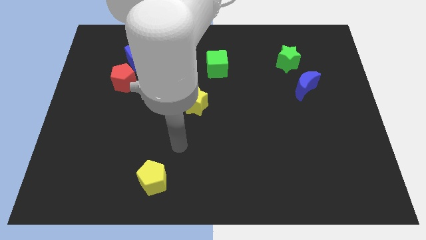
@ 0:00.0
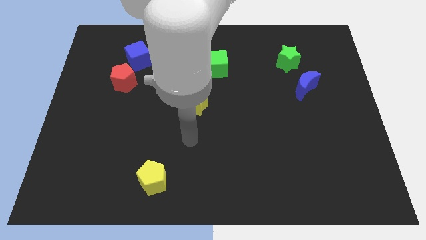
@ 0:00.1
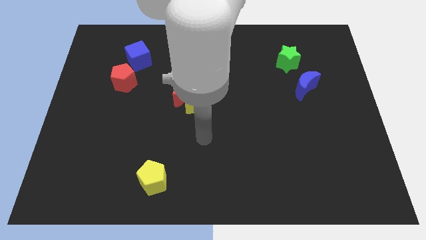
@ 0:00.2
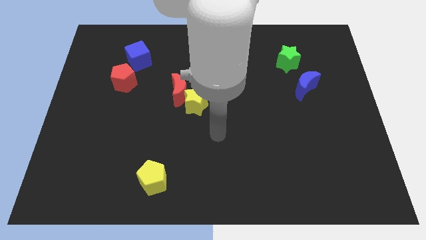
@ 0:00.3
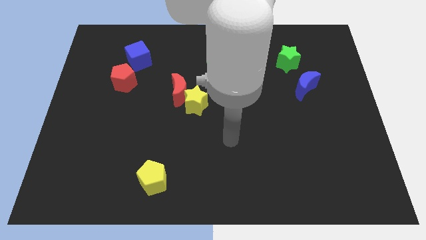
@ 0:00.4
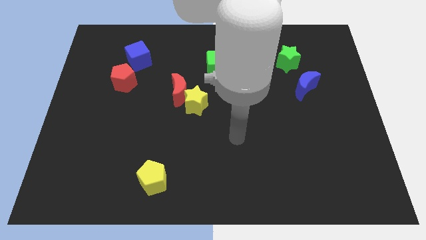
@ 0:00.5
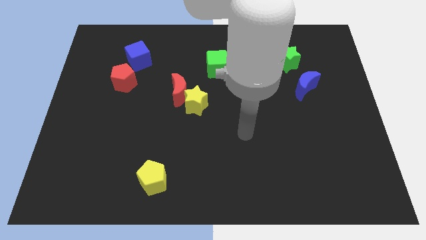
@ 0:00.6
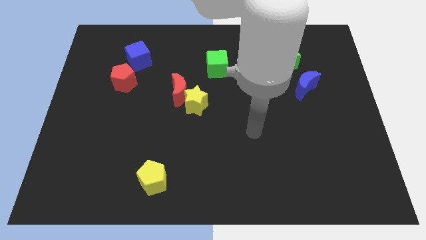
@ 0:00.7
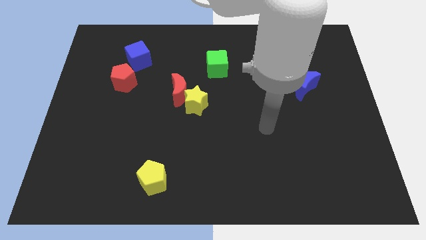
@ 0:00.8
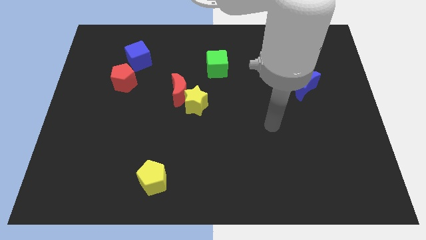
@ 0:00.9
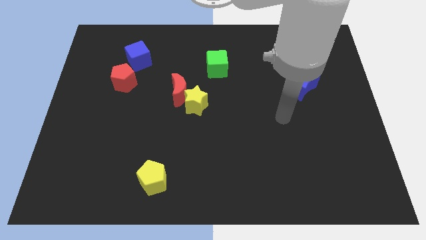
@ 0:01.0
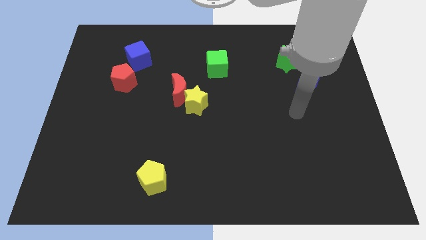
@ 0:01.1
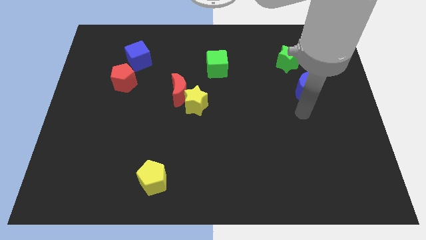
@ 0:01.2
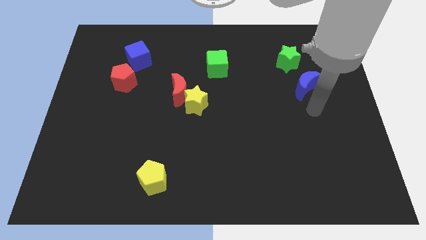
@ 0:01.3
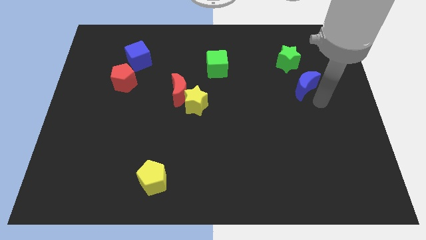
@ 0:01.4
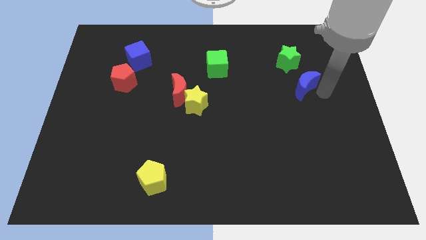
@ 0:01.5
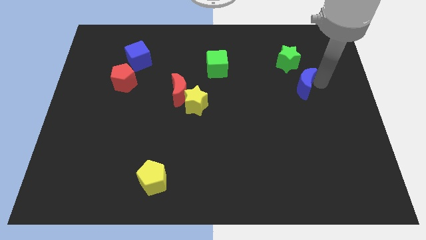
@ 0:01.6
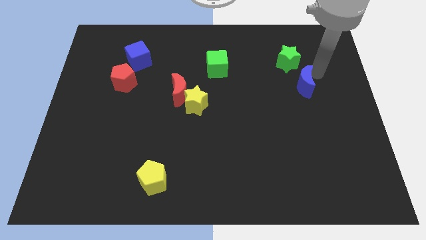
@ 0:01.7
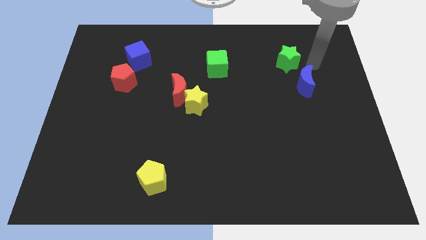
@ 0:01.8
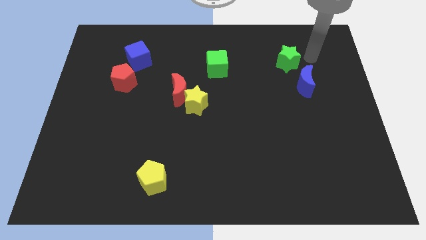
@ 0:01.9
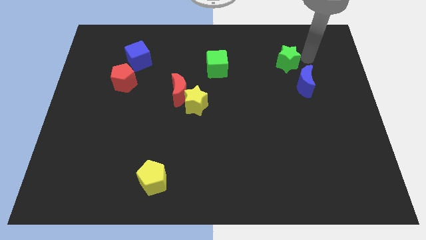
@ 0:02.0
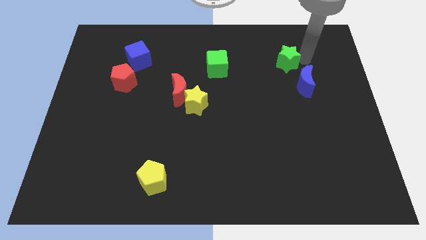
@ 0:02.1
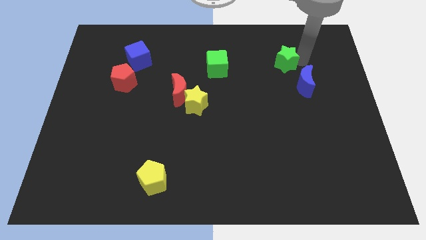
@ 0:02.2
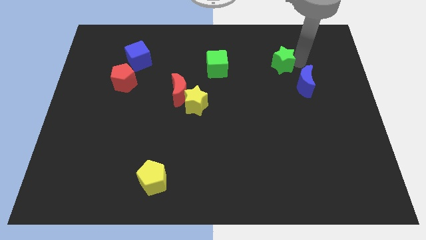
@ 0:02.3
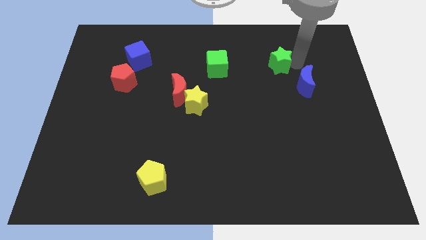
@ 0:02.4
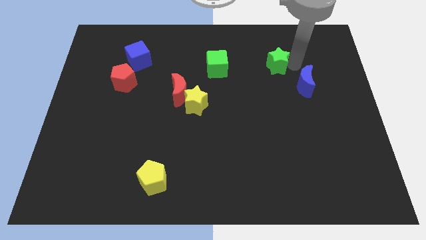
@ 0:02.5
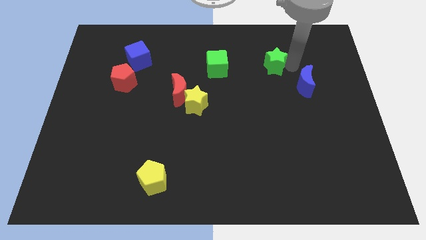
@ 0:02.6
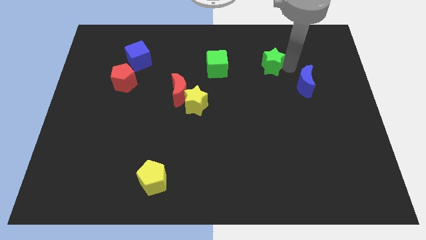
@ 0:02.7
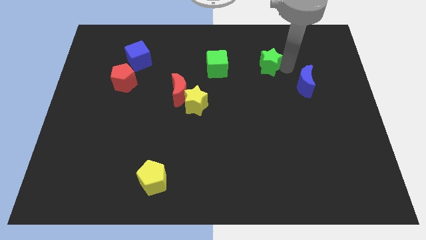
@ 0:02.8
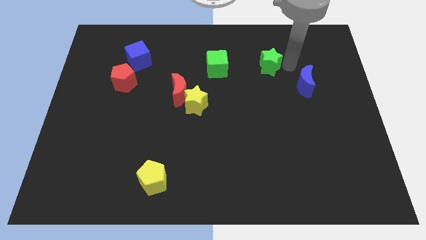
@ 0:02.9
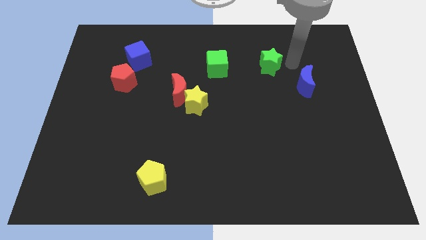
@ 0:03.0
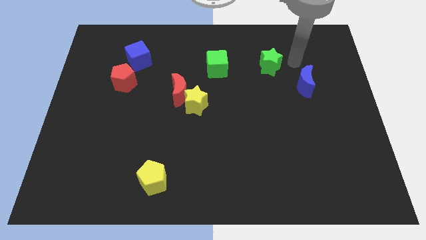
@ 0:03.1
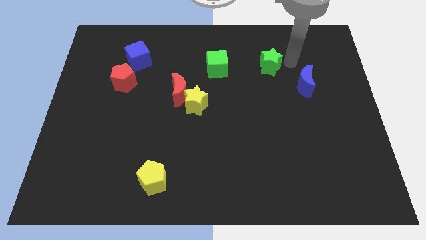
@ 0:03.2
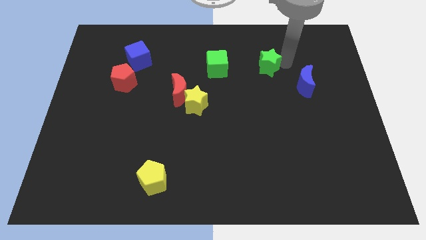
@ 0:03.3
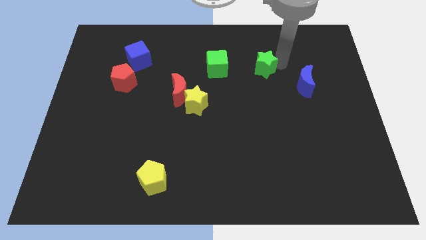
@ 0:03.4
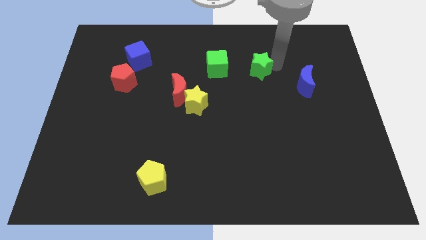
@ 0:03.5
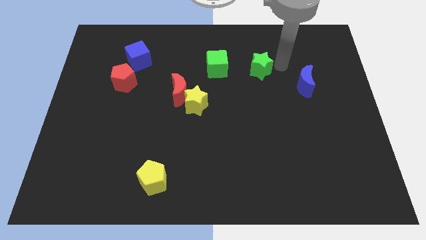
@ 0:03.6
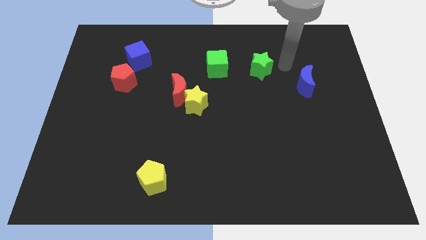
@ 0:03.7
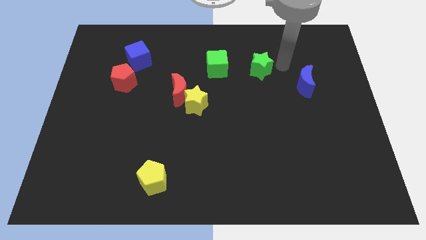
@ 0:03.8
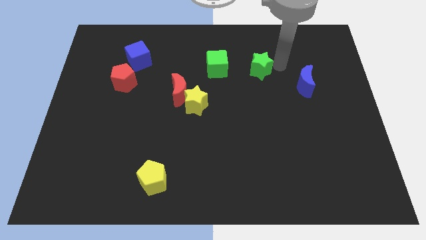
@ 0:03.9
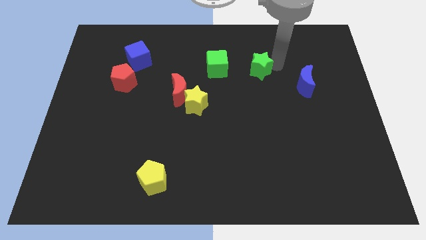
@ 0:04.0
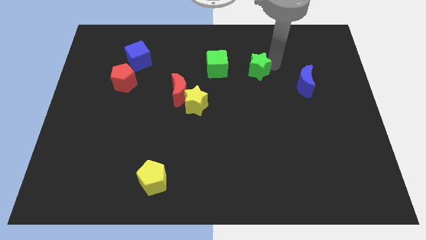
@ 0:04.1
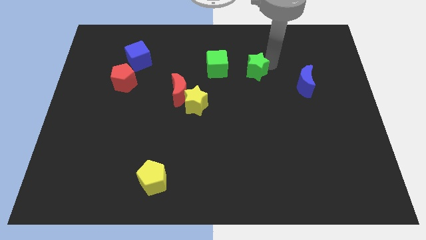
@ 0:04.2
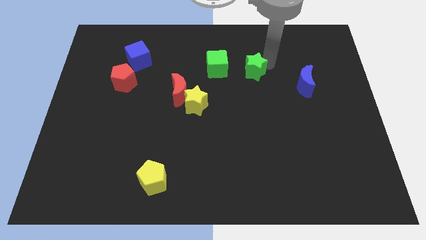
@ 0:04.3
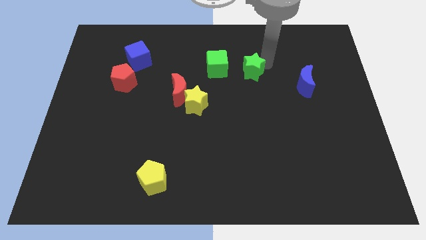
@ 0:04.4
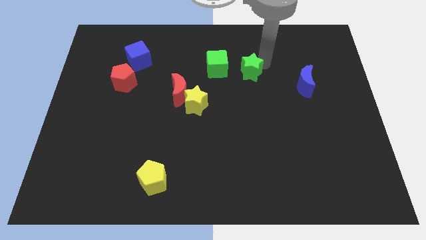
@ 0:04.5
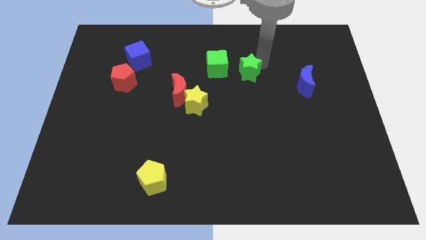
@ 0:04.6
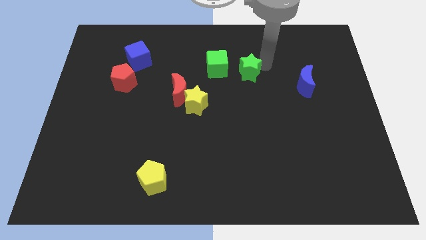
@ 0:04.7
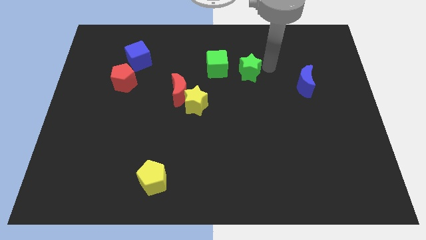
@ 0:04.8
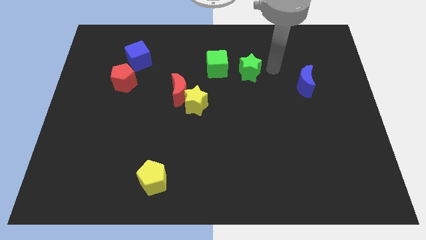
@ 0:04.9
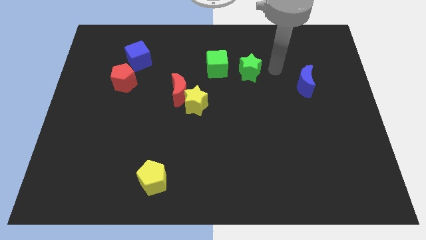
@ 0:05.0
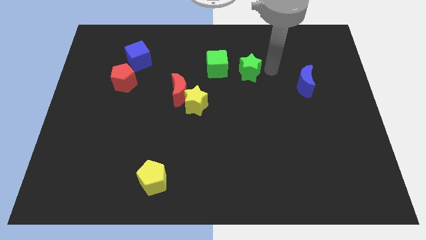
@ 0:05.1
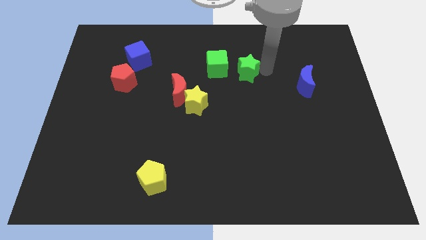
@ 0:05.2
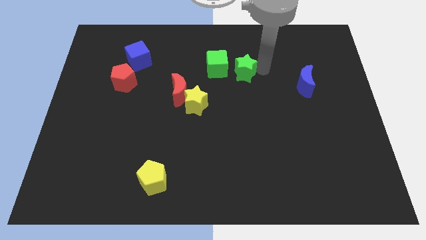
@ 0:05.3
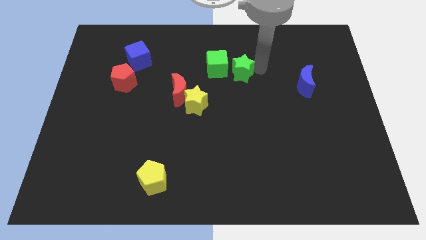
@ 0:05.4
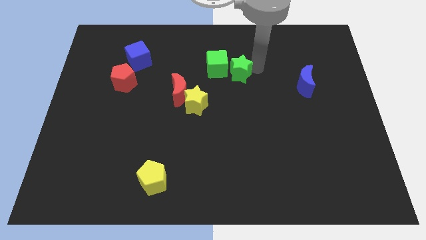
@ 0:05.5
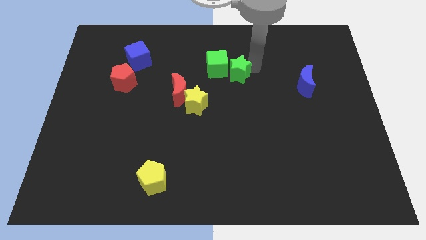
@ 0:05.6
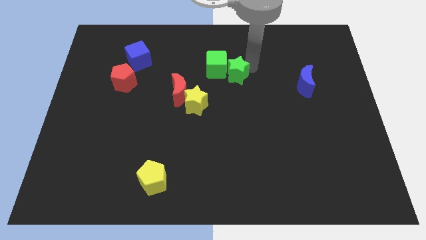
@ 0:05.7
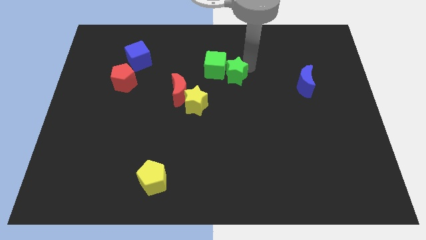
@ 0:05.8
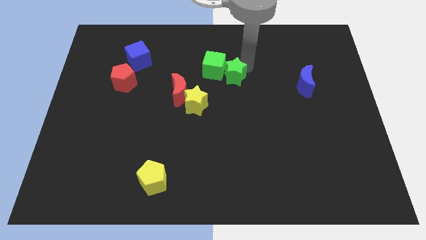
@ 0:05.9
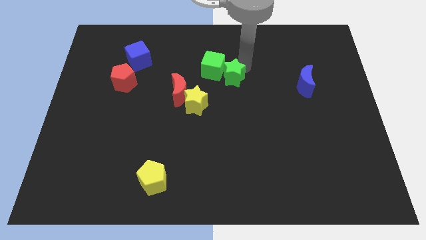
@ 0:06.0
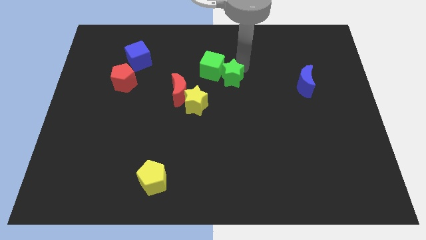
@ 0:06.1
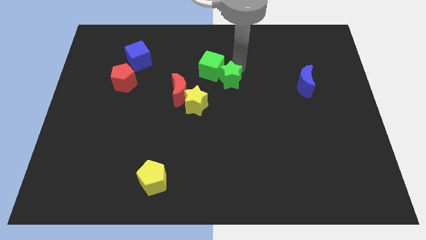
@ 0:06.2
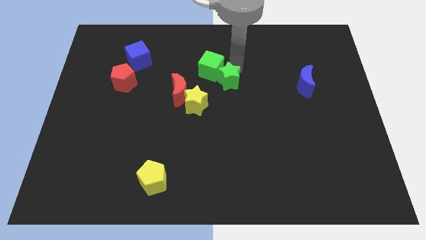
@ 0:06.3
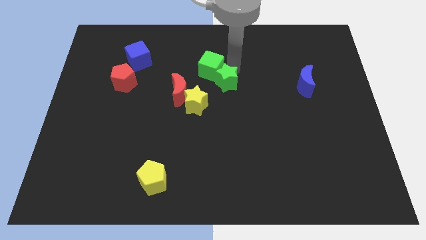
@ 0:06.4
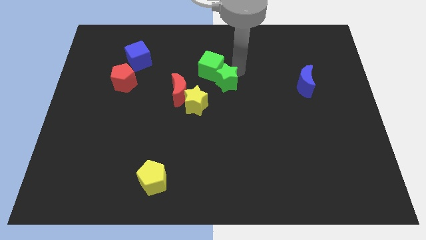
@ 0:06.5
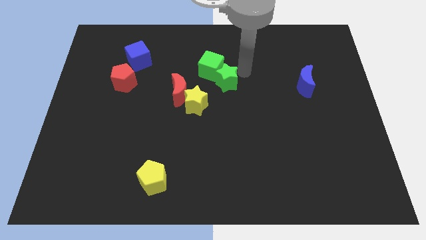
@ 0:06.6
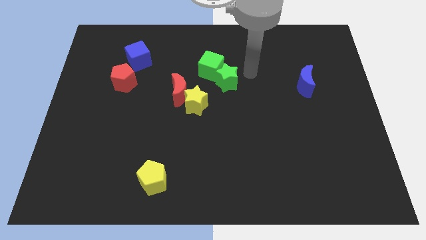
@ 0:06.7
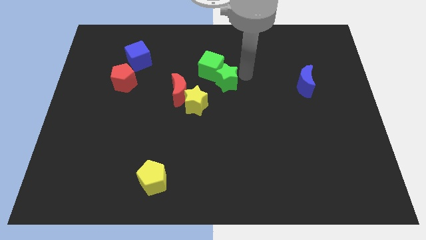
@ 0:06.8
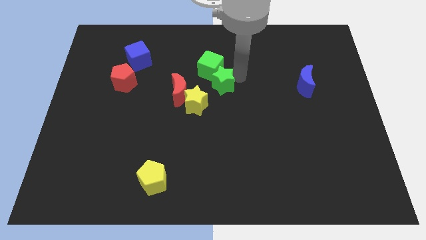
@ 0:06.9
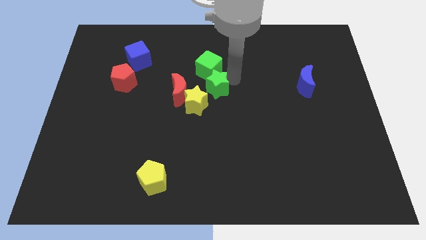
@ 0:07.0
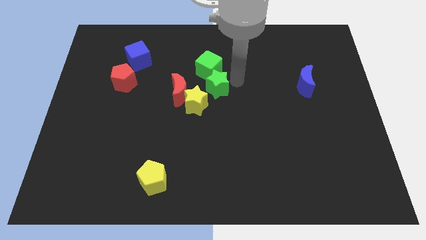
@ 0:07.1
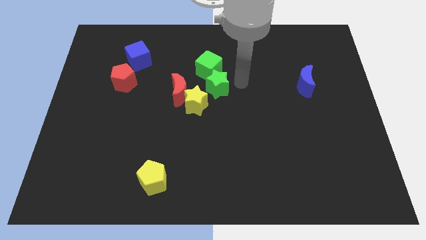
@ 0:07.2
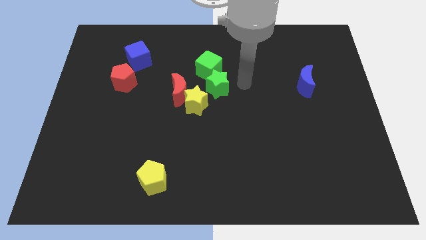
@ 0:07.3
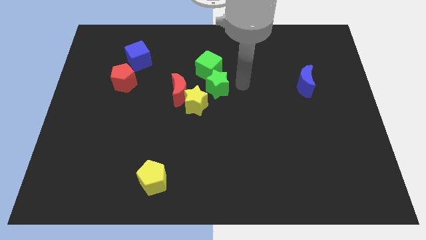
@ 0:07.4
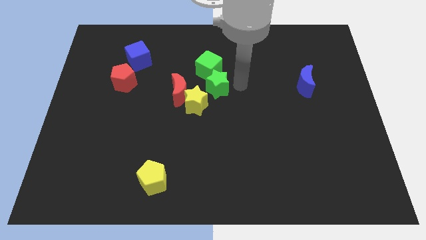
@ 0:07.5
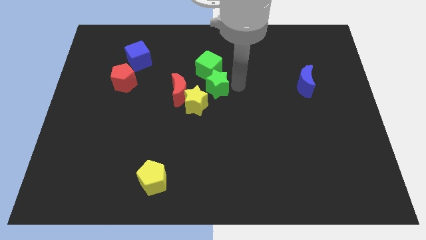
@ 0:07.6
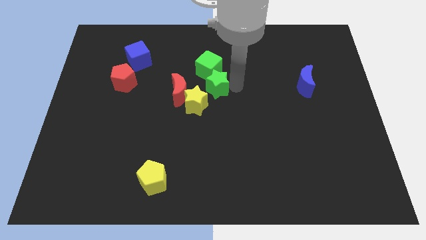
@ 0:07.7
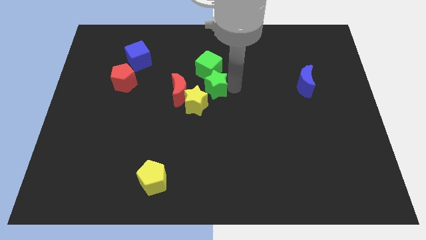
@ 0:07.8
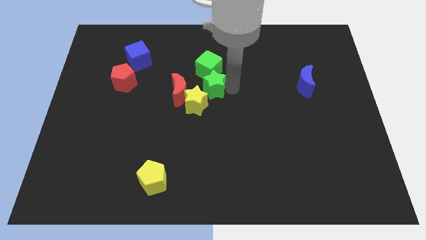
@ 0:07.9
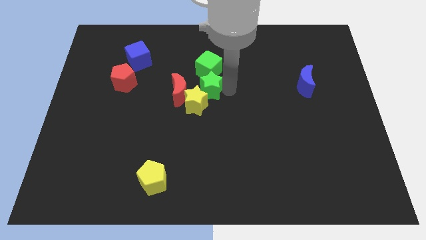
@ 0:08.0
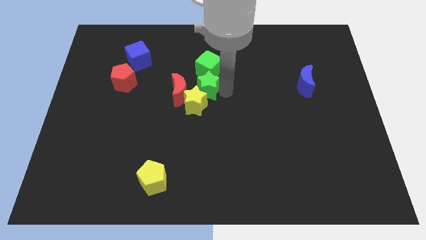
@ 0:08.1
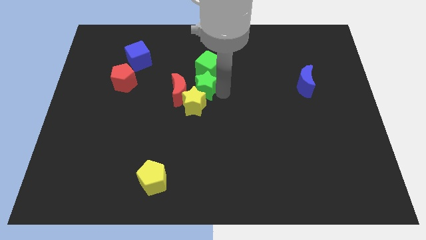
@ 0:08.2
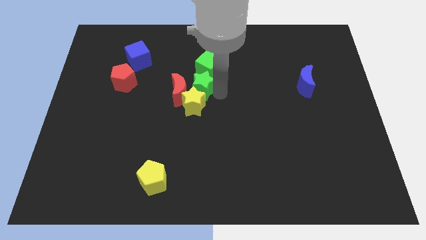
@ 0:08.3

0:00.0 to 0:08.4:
slide the green star to the red moon

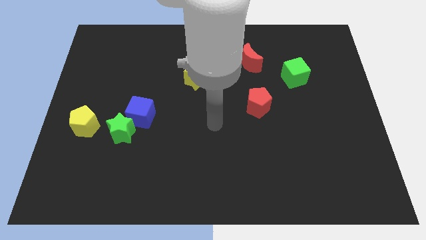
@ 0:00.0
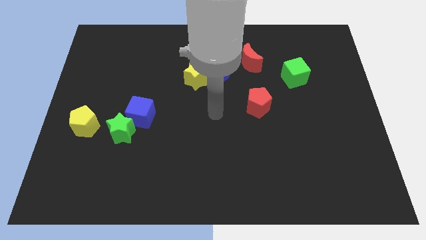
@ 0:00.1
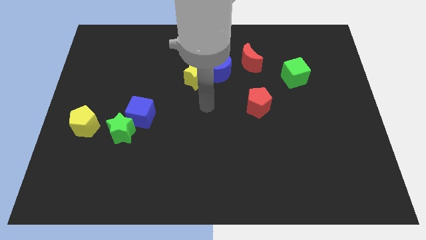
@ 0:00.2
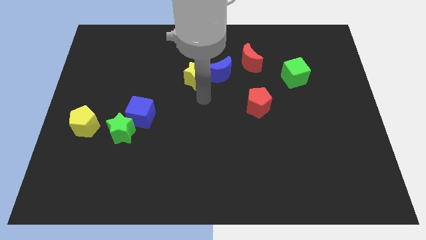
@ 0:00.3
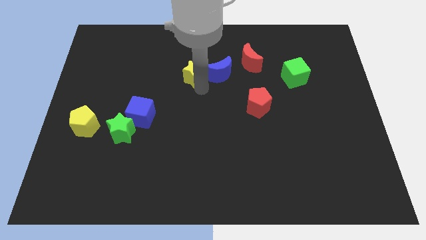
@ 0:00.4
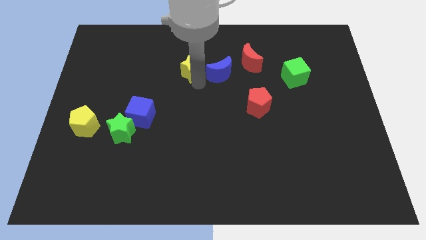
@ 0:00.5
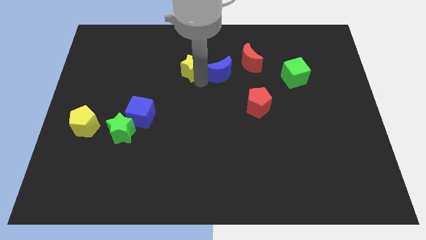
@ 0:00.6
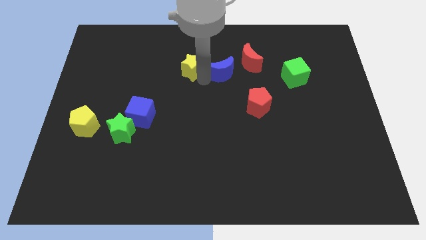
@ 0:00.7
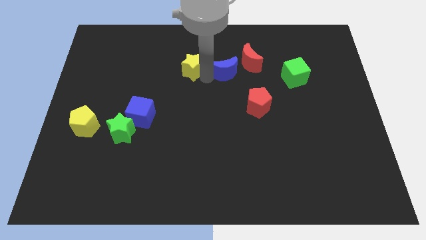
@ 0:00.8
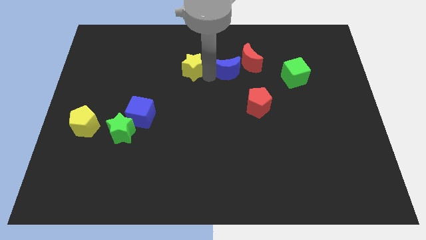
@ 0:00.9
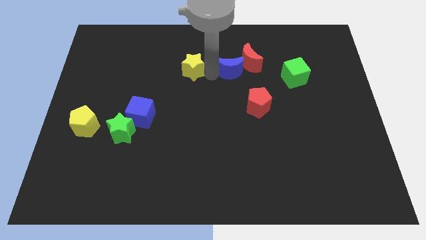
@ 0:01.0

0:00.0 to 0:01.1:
push the blue moon towards the red moon
